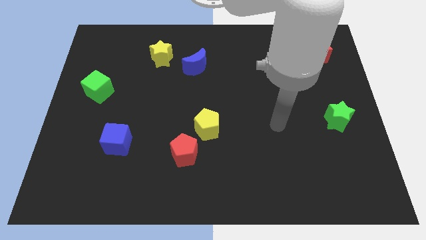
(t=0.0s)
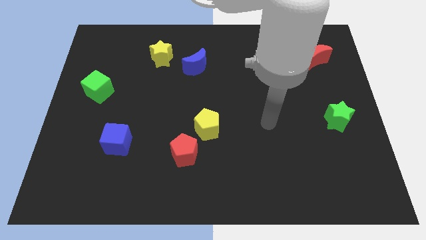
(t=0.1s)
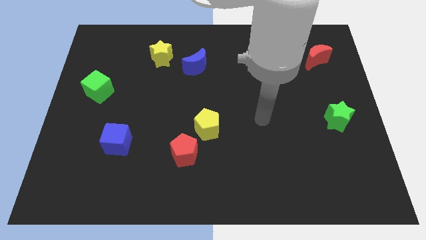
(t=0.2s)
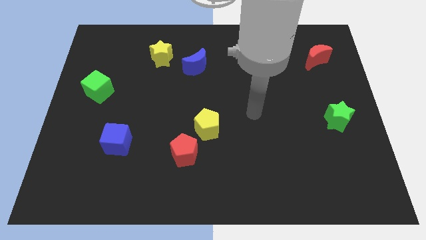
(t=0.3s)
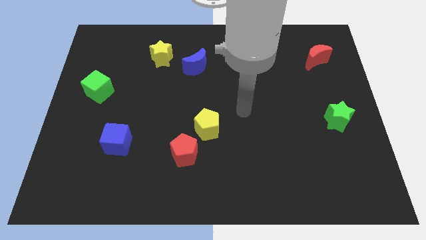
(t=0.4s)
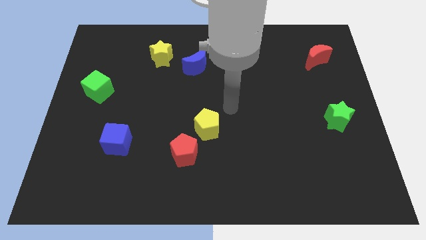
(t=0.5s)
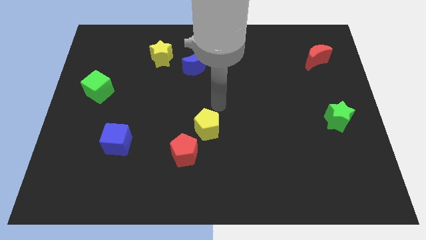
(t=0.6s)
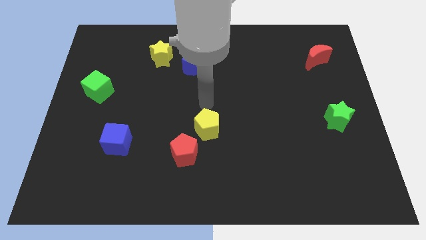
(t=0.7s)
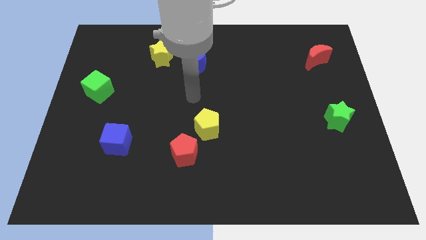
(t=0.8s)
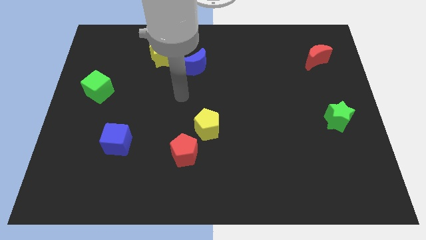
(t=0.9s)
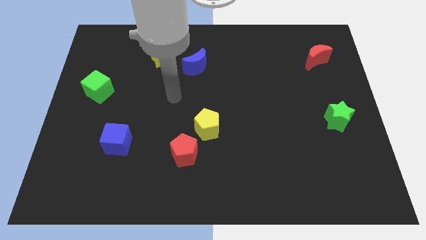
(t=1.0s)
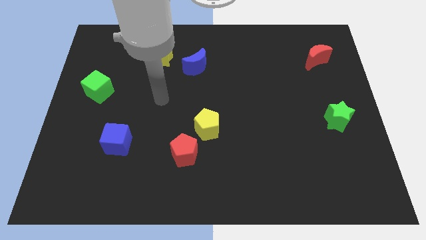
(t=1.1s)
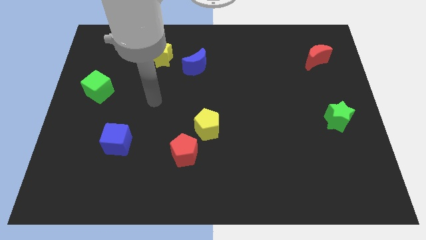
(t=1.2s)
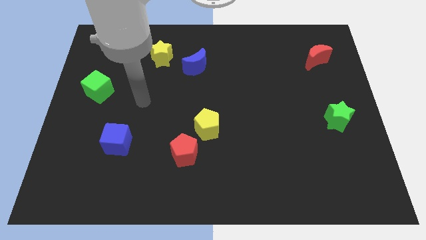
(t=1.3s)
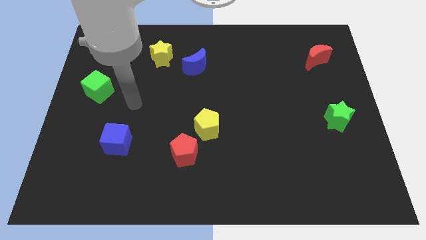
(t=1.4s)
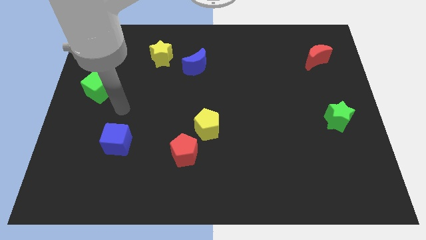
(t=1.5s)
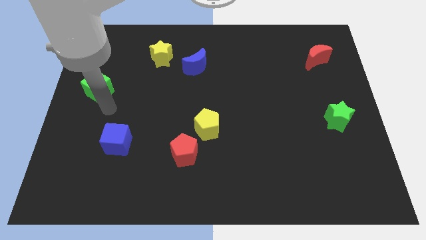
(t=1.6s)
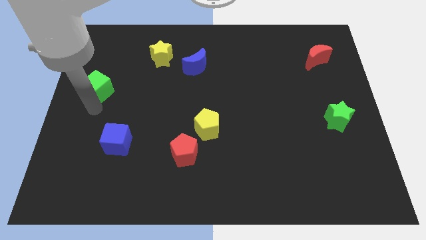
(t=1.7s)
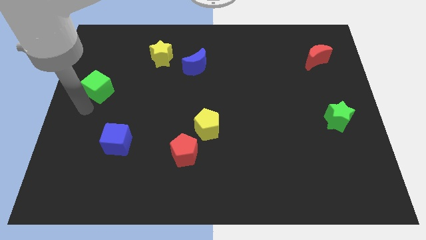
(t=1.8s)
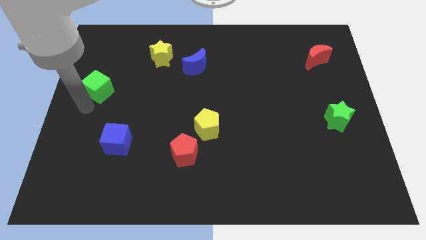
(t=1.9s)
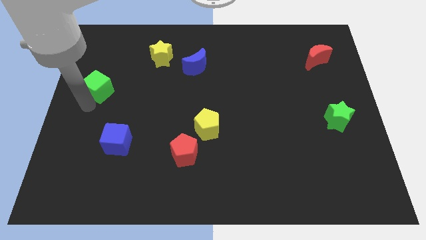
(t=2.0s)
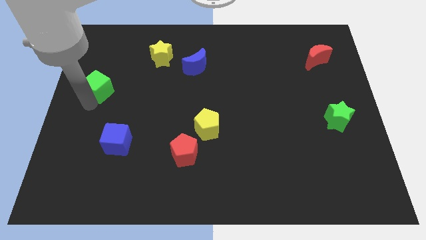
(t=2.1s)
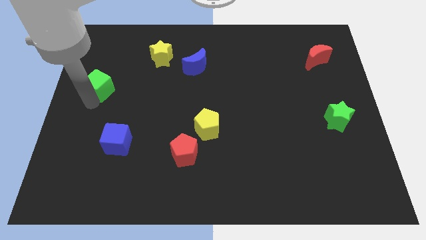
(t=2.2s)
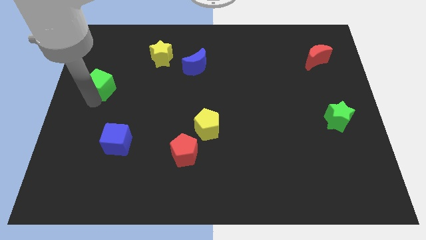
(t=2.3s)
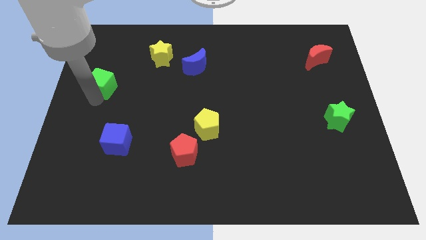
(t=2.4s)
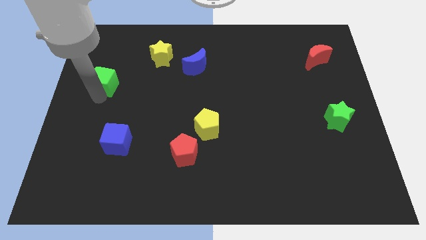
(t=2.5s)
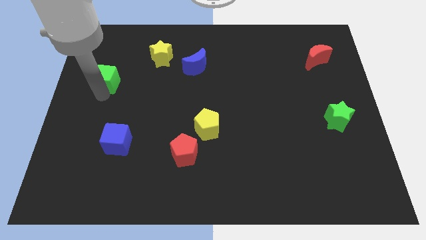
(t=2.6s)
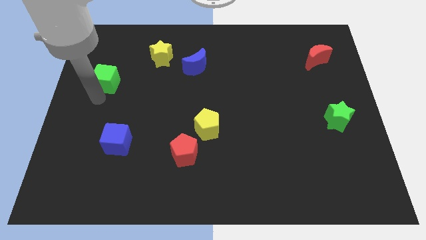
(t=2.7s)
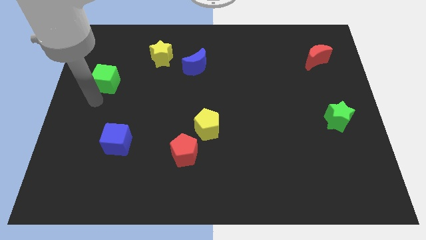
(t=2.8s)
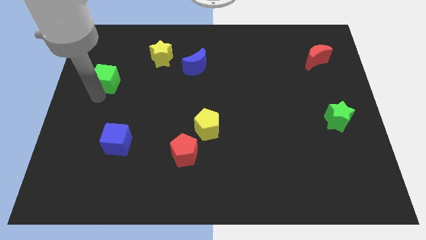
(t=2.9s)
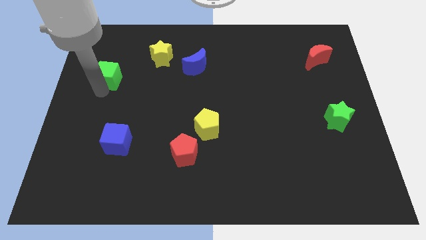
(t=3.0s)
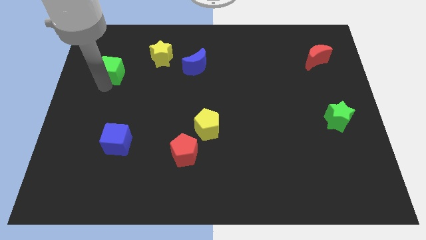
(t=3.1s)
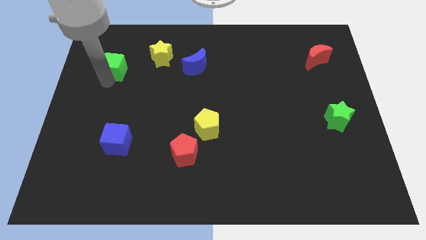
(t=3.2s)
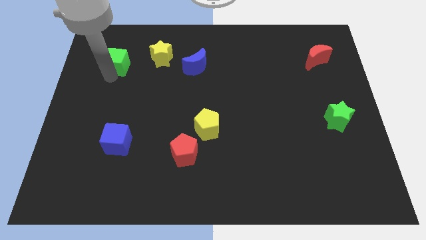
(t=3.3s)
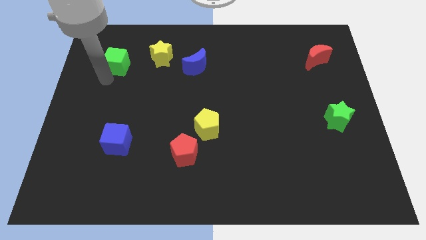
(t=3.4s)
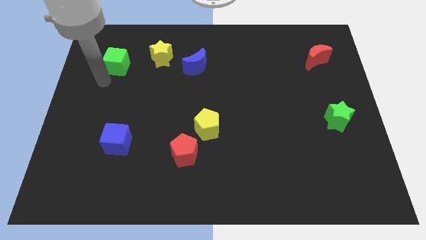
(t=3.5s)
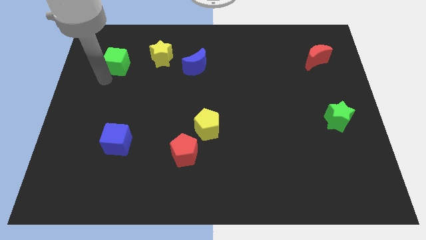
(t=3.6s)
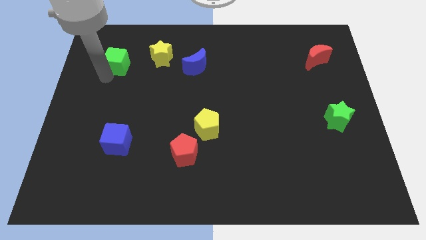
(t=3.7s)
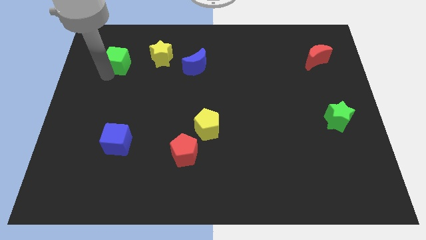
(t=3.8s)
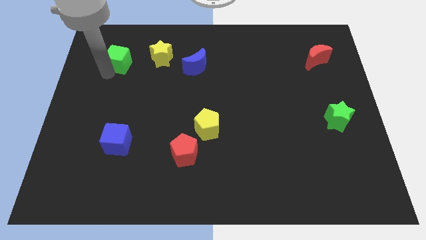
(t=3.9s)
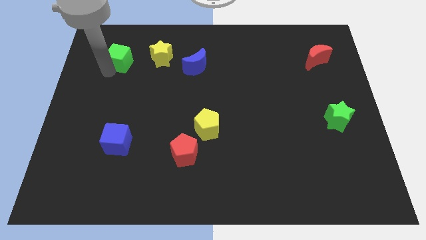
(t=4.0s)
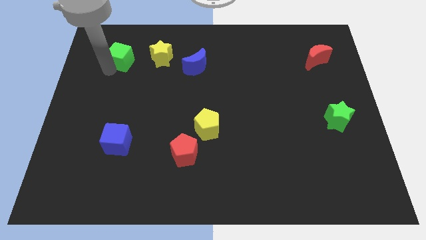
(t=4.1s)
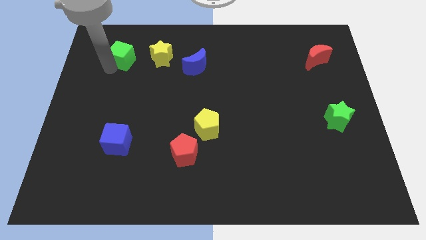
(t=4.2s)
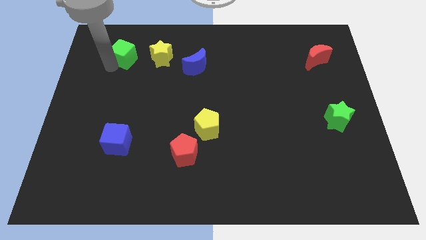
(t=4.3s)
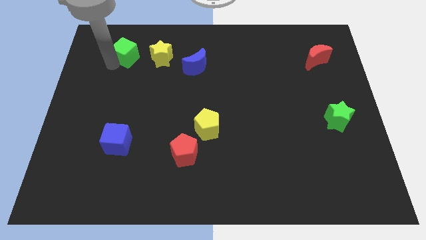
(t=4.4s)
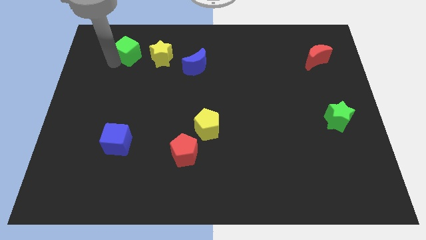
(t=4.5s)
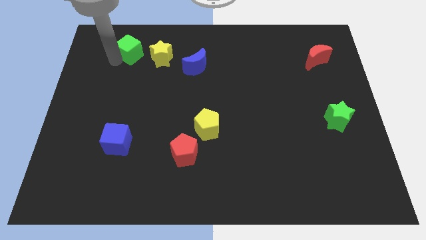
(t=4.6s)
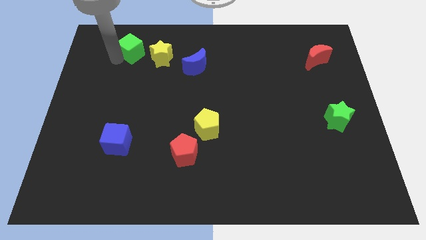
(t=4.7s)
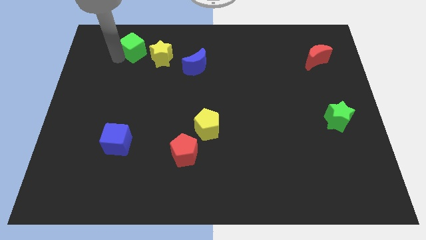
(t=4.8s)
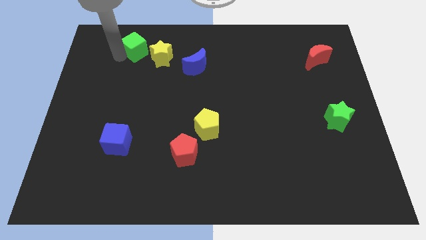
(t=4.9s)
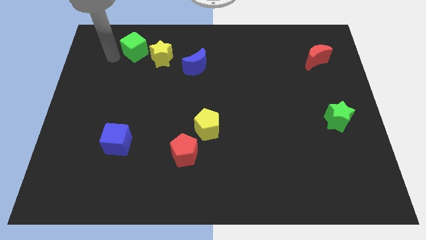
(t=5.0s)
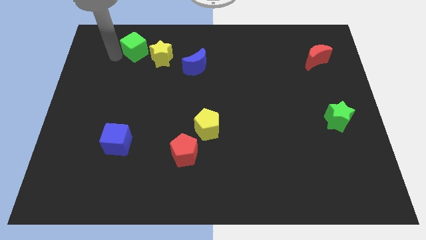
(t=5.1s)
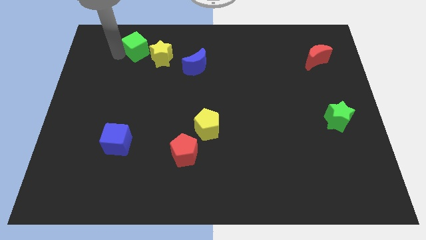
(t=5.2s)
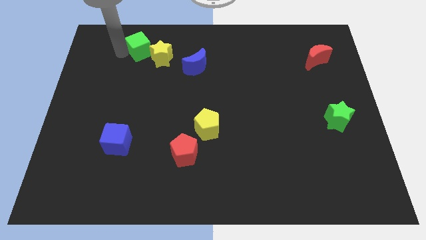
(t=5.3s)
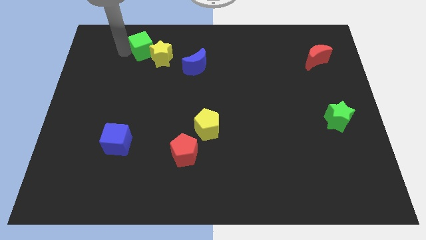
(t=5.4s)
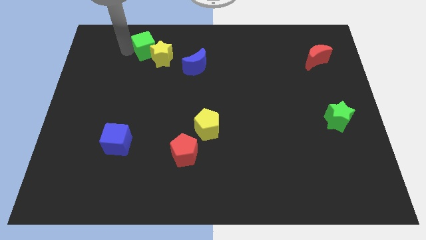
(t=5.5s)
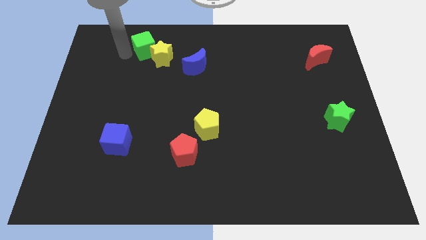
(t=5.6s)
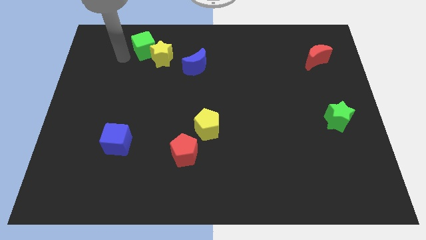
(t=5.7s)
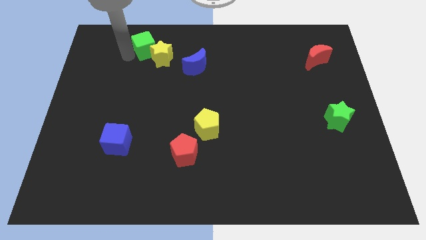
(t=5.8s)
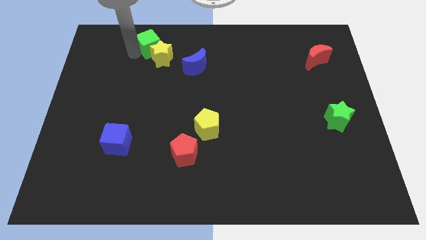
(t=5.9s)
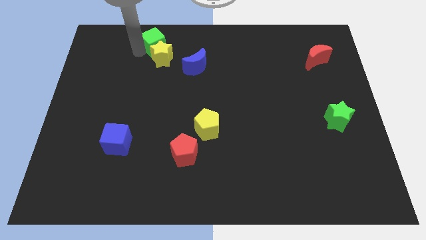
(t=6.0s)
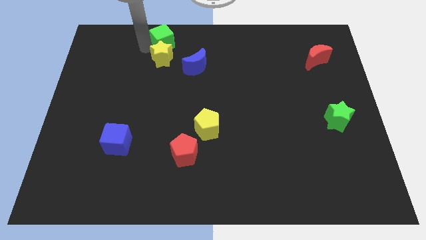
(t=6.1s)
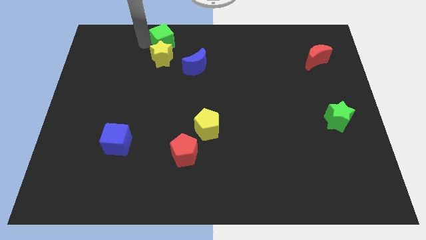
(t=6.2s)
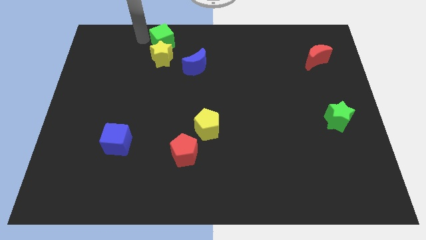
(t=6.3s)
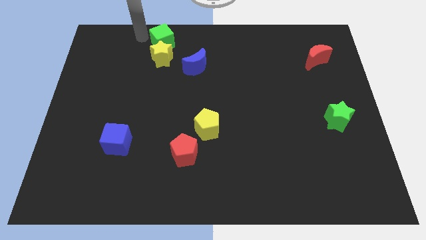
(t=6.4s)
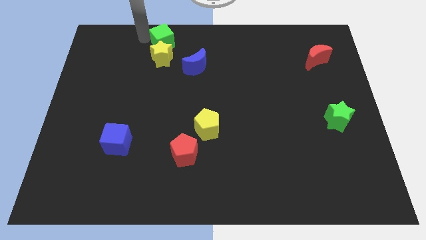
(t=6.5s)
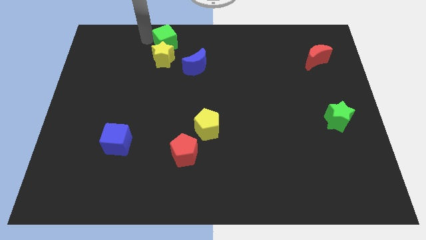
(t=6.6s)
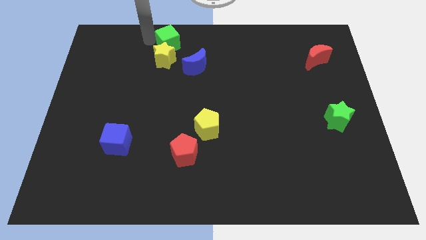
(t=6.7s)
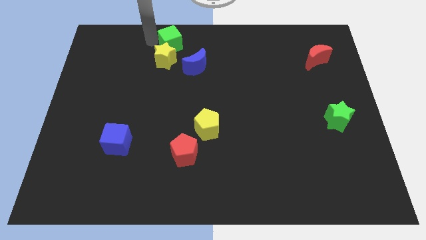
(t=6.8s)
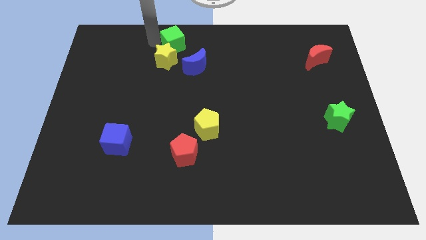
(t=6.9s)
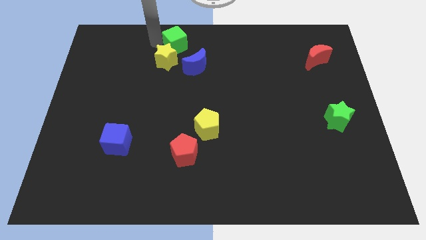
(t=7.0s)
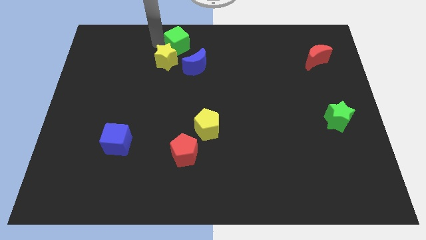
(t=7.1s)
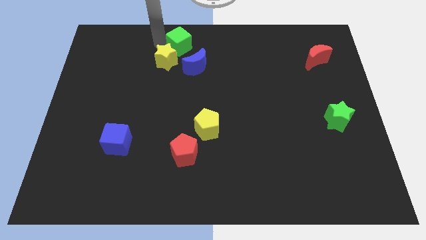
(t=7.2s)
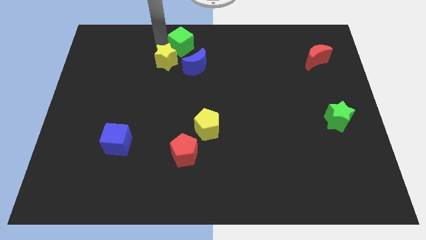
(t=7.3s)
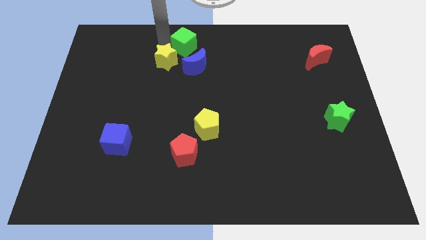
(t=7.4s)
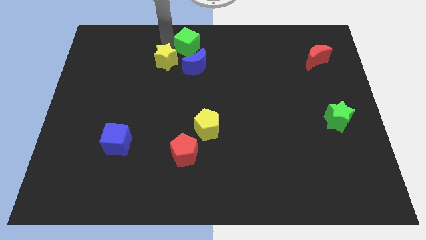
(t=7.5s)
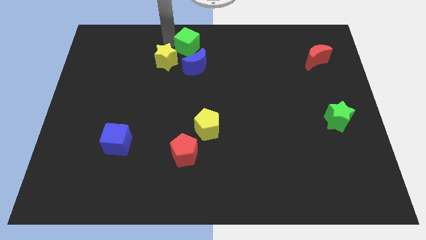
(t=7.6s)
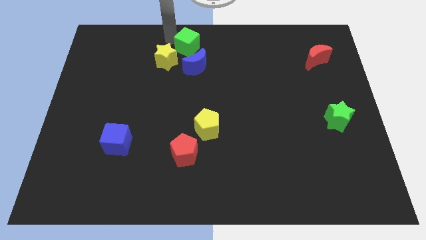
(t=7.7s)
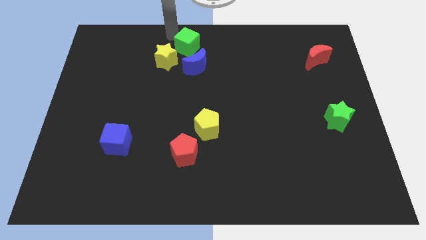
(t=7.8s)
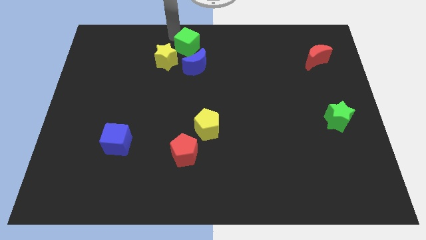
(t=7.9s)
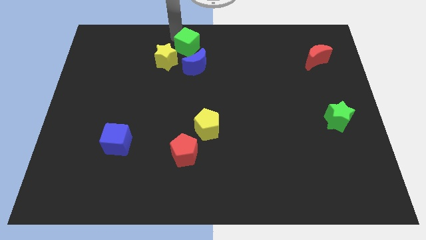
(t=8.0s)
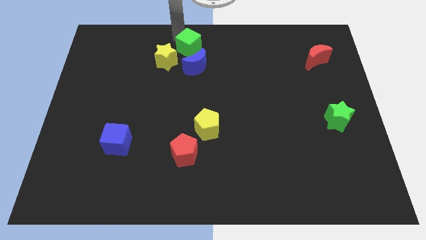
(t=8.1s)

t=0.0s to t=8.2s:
push the green cube to the right of the yellow star
